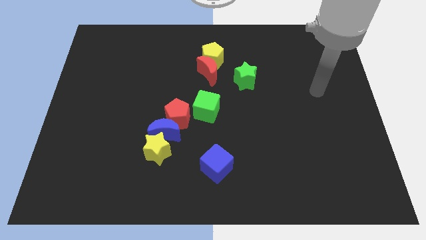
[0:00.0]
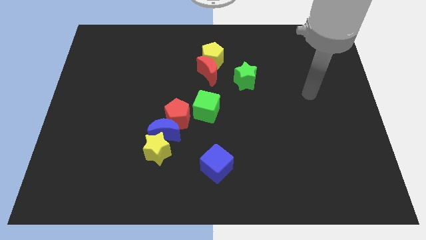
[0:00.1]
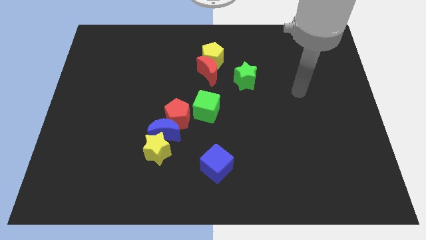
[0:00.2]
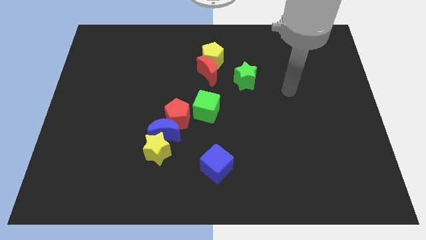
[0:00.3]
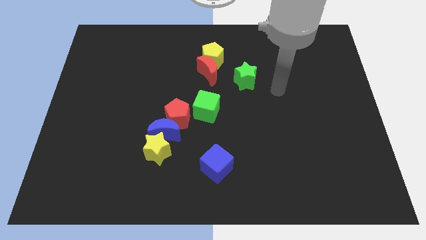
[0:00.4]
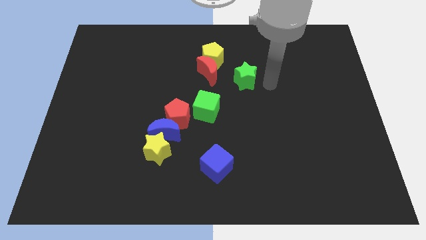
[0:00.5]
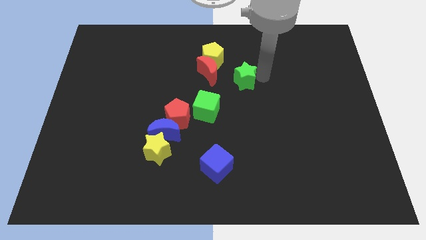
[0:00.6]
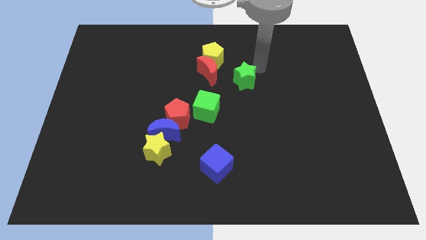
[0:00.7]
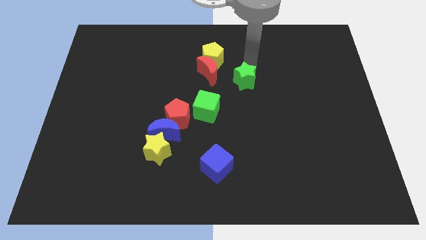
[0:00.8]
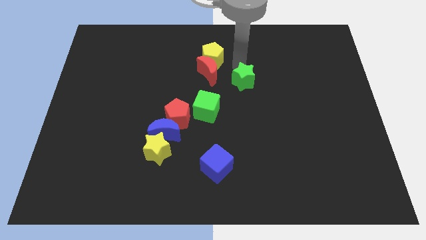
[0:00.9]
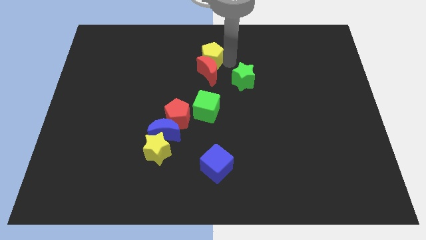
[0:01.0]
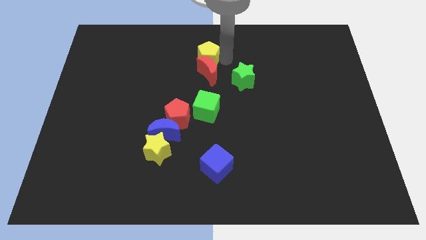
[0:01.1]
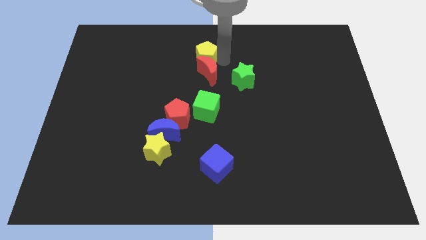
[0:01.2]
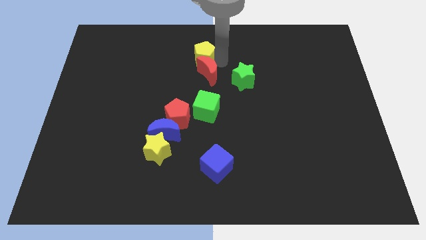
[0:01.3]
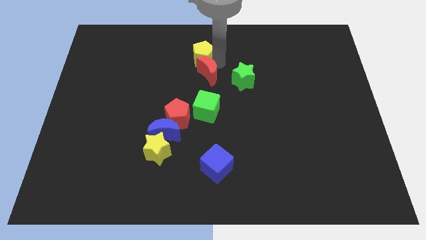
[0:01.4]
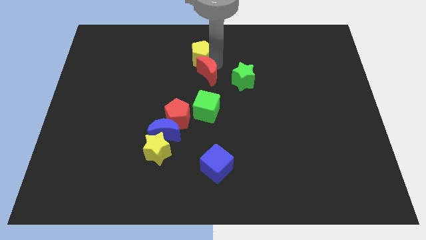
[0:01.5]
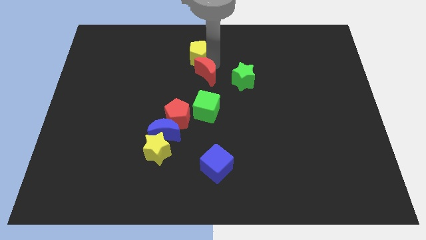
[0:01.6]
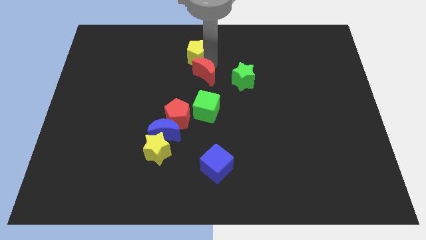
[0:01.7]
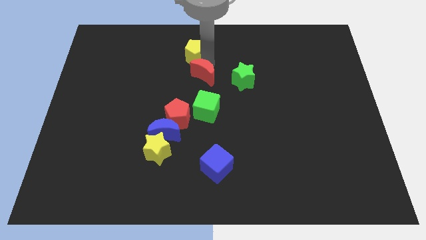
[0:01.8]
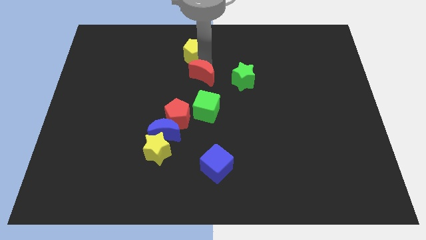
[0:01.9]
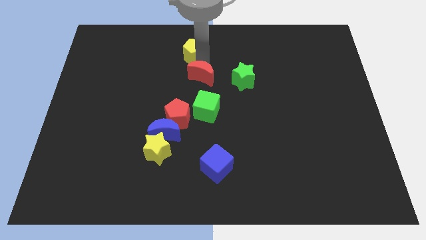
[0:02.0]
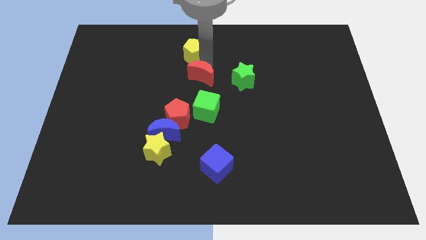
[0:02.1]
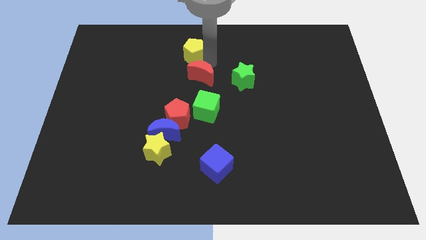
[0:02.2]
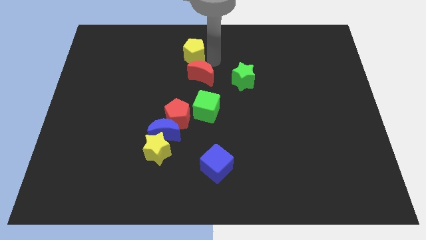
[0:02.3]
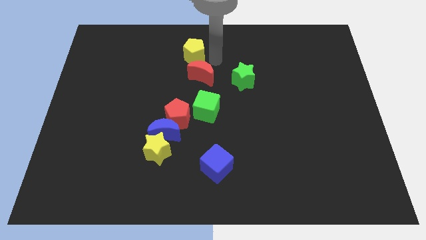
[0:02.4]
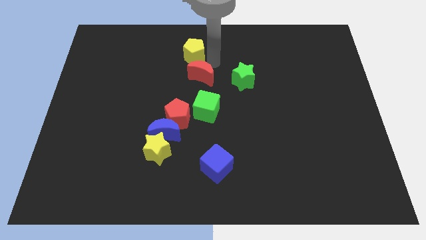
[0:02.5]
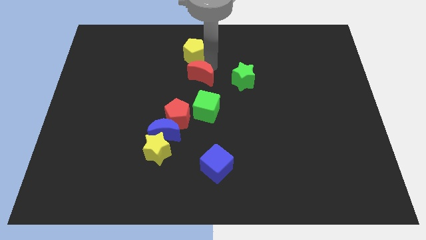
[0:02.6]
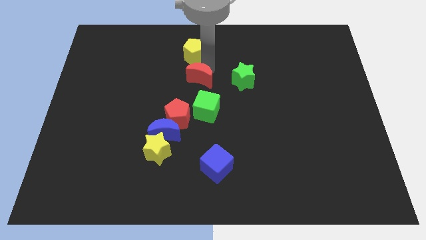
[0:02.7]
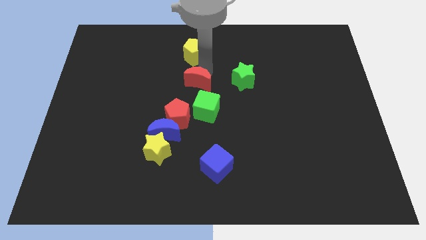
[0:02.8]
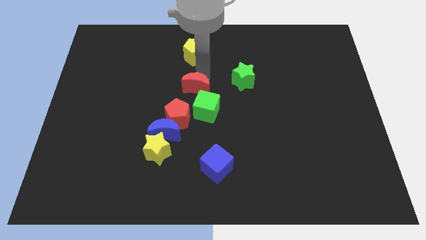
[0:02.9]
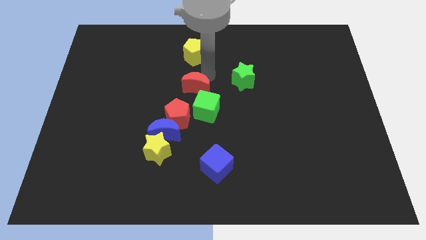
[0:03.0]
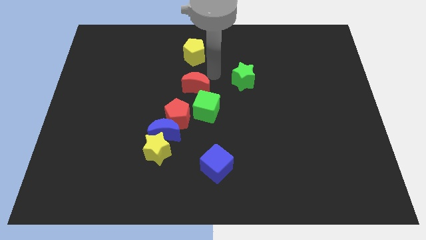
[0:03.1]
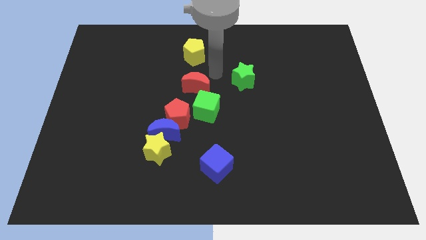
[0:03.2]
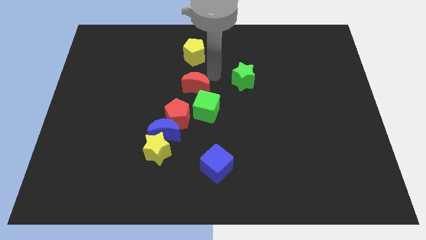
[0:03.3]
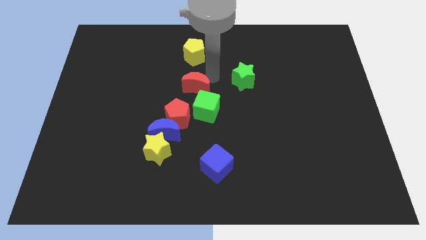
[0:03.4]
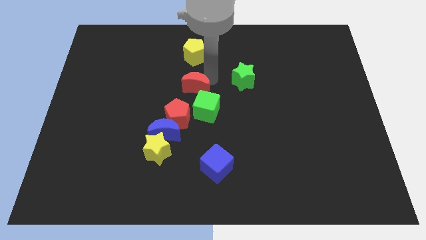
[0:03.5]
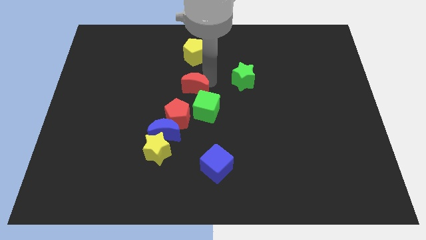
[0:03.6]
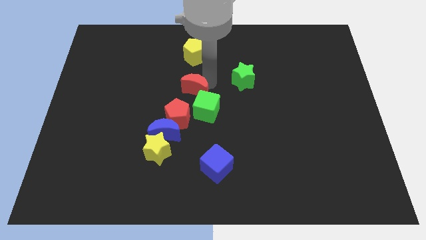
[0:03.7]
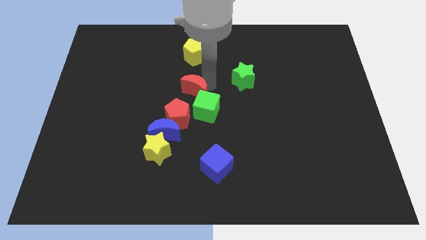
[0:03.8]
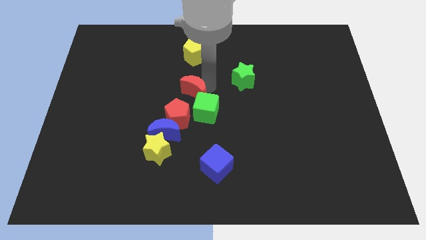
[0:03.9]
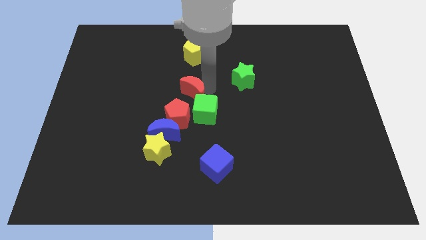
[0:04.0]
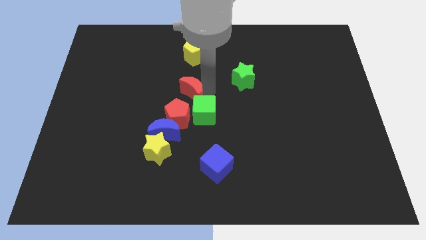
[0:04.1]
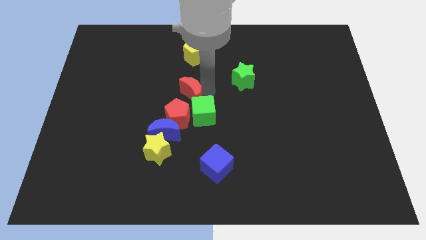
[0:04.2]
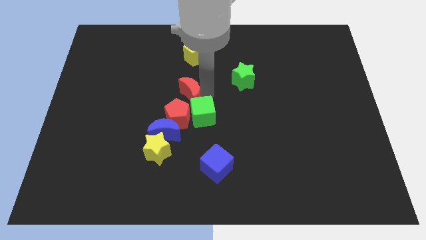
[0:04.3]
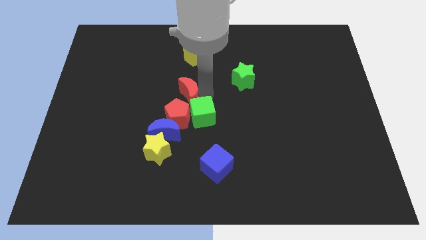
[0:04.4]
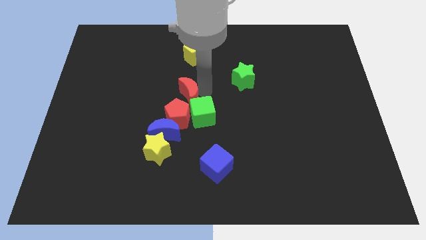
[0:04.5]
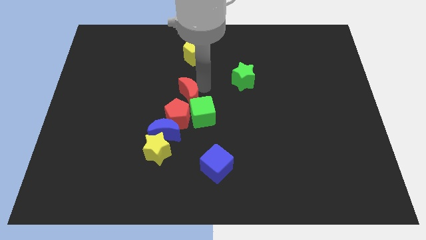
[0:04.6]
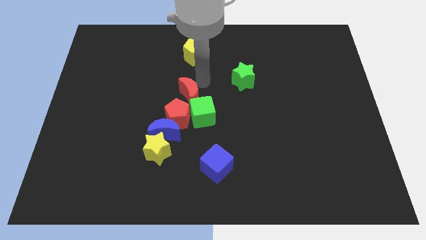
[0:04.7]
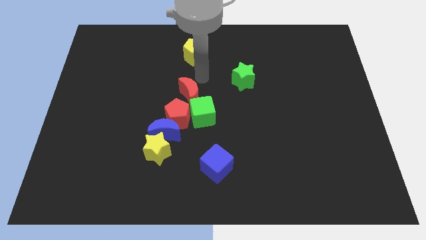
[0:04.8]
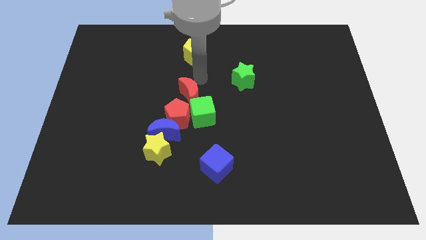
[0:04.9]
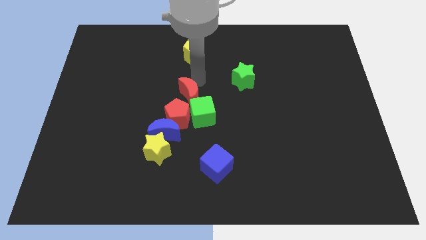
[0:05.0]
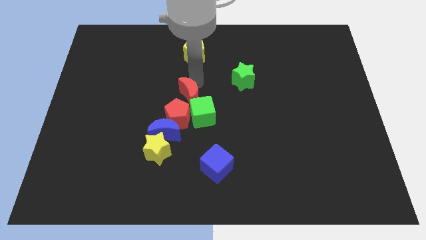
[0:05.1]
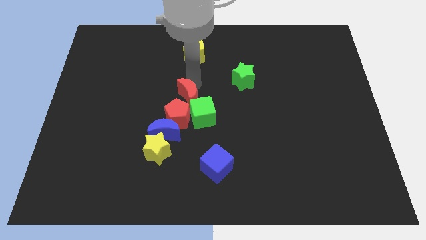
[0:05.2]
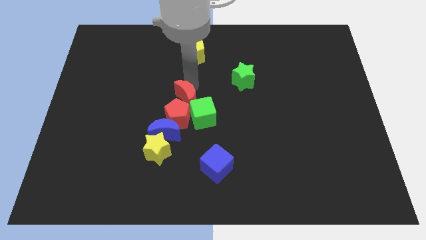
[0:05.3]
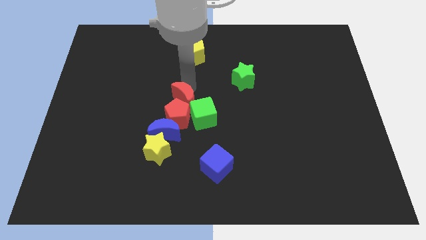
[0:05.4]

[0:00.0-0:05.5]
move the red moon to the red pentagon

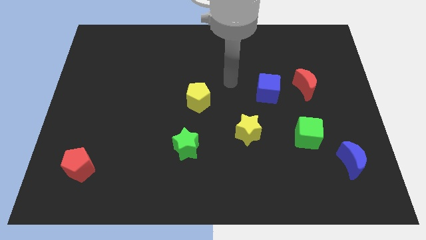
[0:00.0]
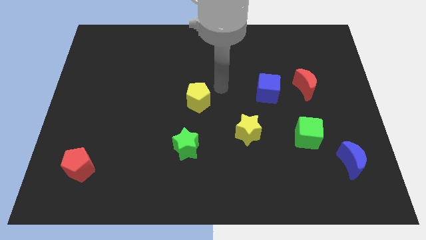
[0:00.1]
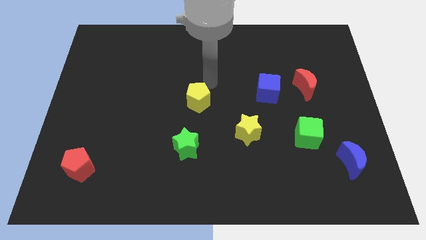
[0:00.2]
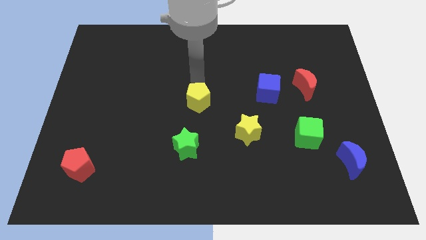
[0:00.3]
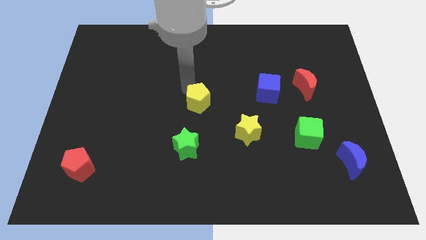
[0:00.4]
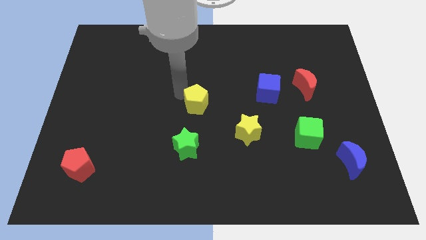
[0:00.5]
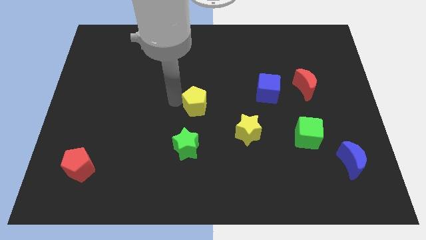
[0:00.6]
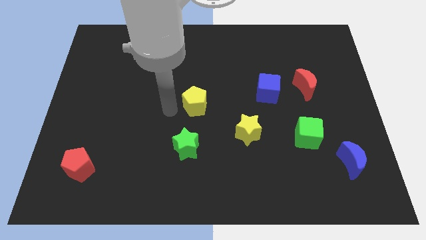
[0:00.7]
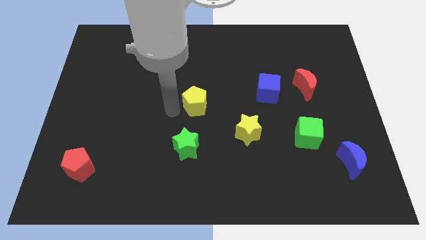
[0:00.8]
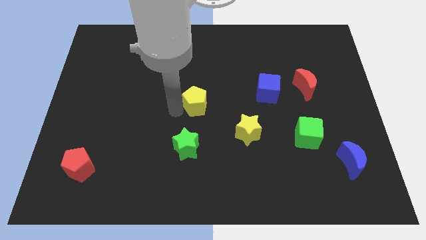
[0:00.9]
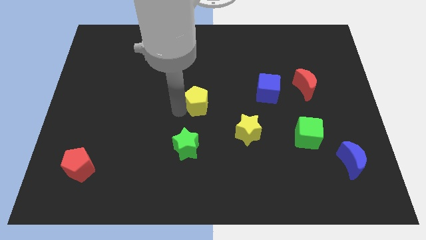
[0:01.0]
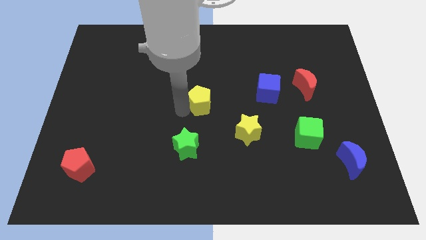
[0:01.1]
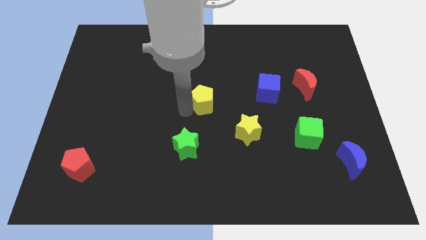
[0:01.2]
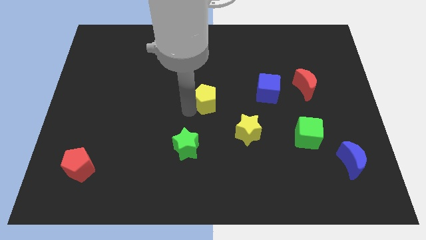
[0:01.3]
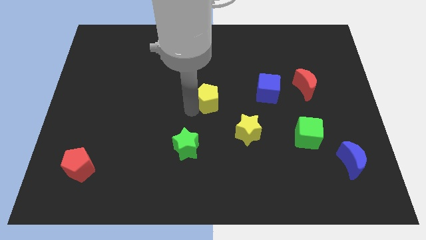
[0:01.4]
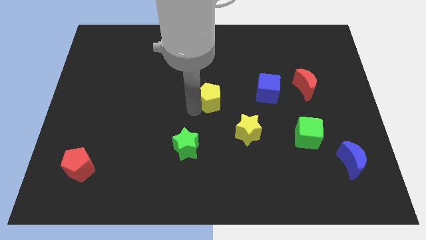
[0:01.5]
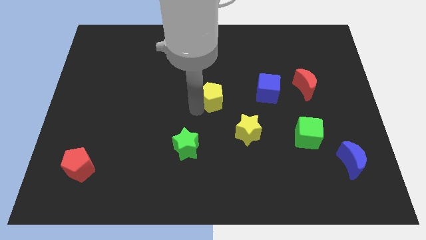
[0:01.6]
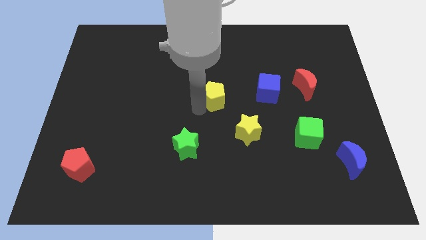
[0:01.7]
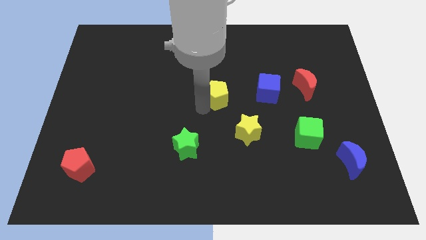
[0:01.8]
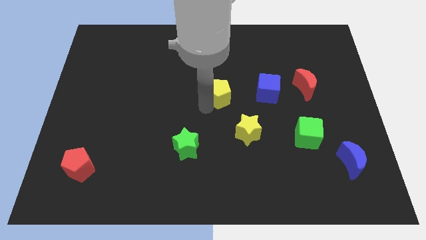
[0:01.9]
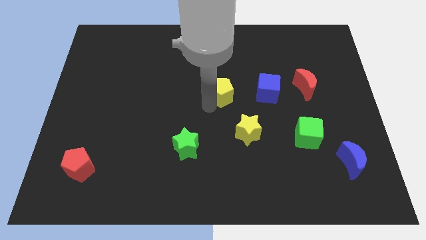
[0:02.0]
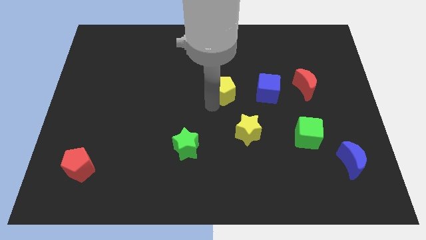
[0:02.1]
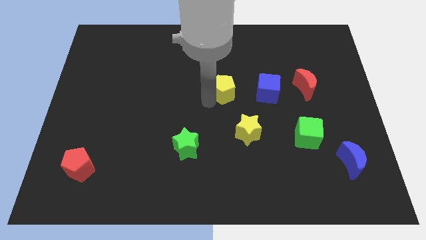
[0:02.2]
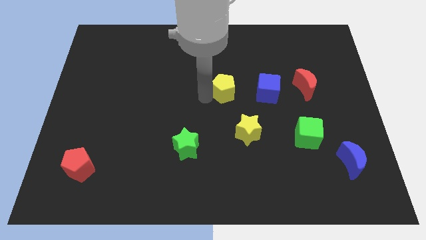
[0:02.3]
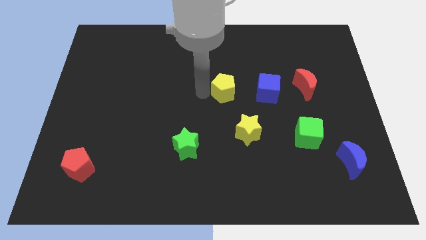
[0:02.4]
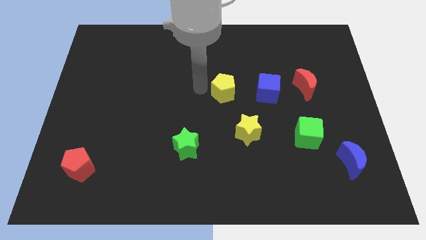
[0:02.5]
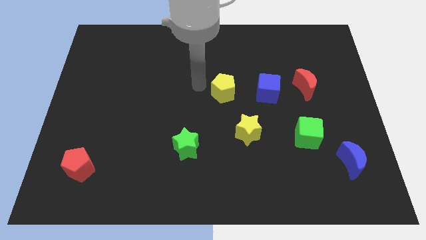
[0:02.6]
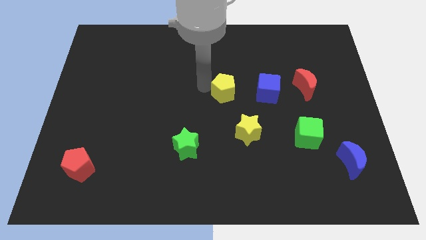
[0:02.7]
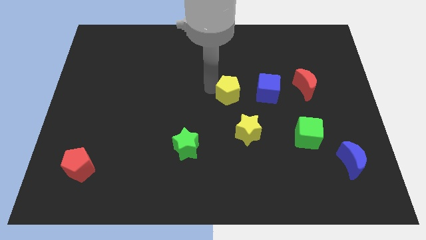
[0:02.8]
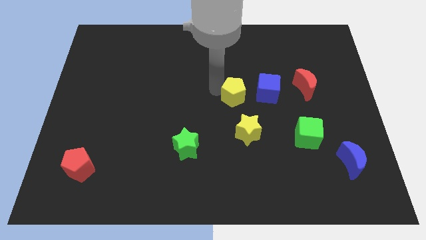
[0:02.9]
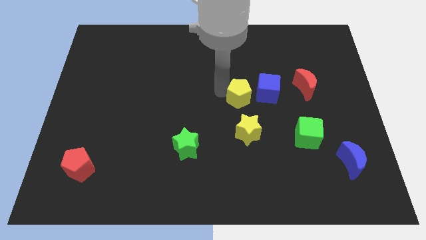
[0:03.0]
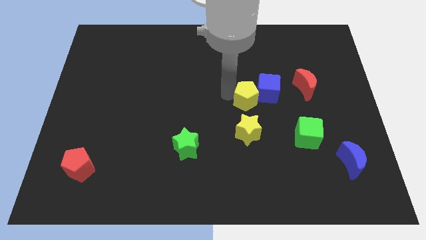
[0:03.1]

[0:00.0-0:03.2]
slide the yellow pentagon to the blue cube
